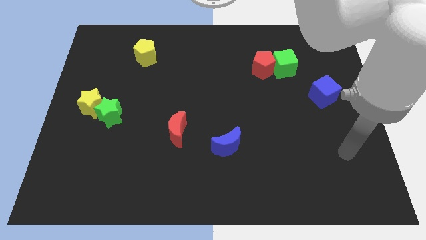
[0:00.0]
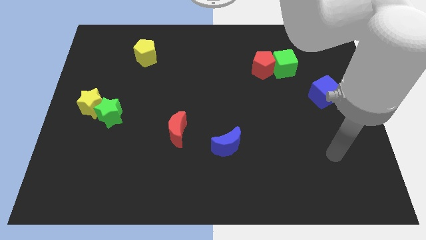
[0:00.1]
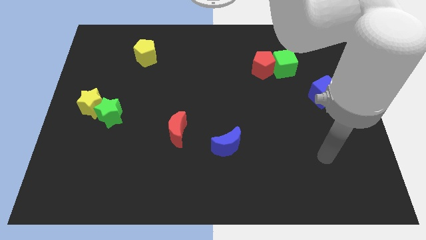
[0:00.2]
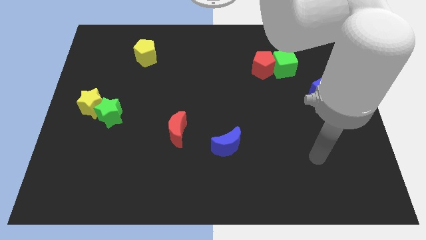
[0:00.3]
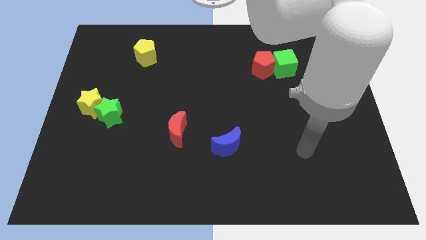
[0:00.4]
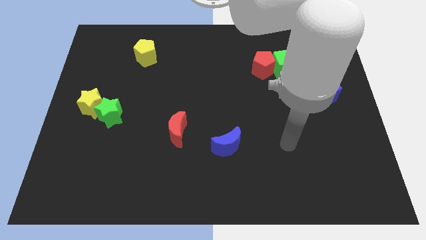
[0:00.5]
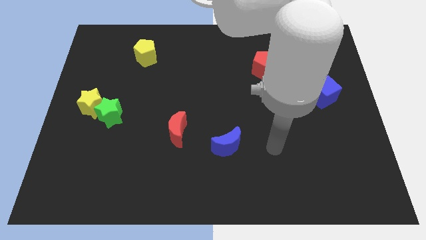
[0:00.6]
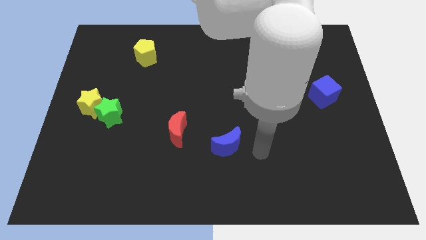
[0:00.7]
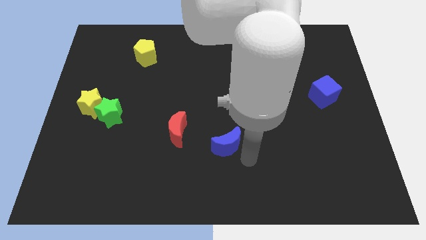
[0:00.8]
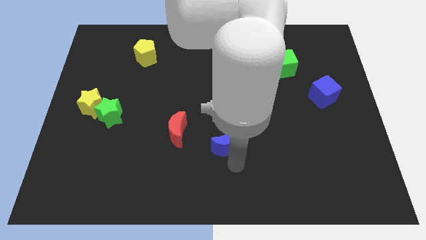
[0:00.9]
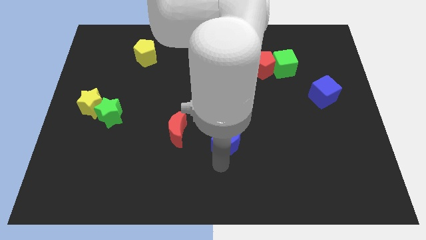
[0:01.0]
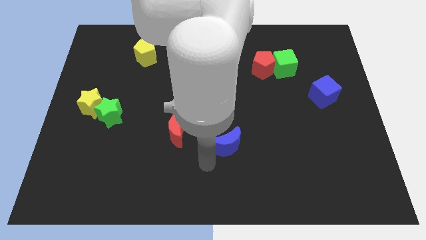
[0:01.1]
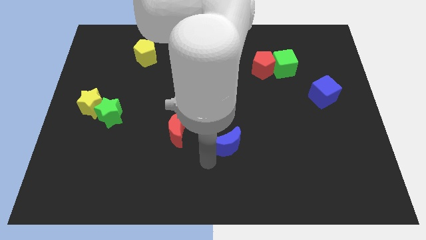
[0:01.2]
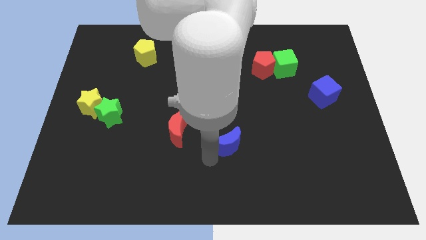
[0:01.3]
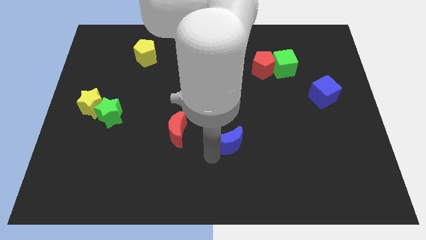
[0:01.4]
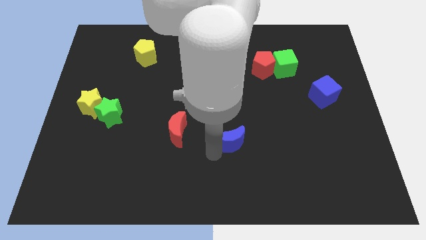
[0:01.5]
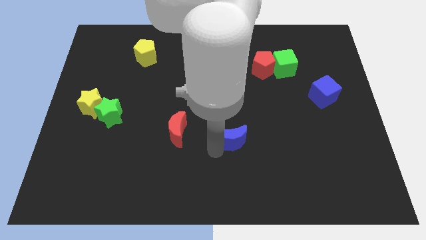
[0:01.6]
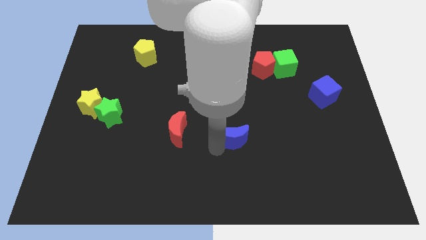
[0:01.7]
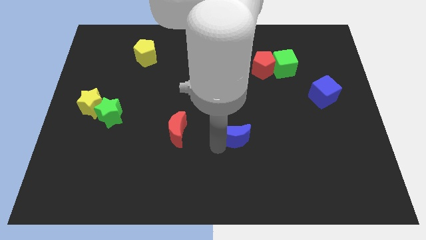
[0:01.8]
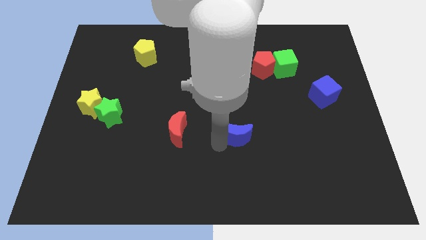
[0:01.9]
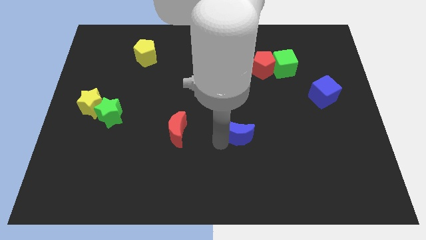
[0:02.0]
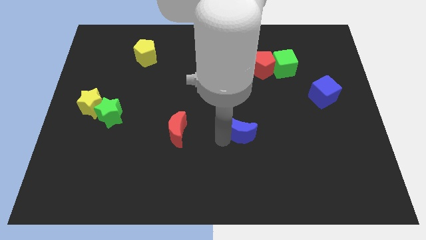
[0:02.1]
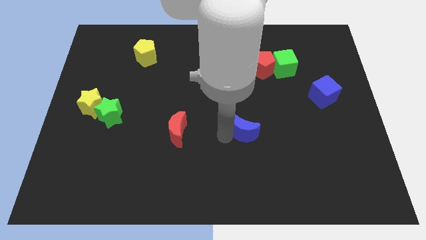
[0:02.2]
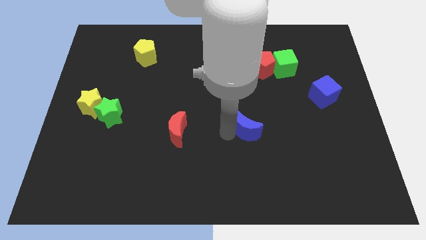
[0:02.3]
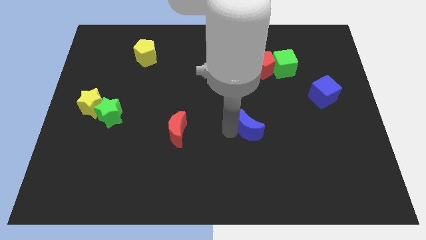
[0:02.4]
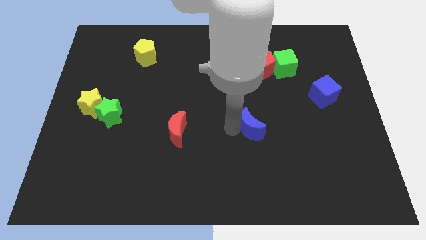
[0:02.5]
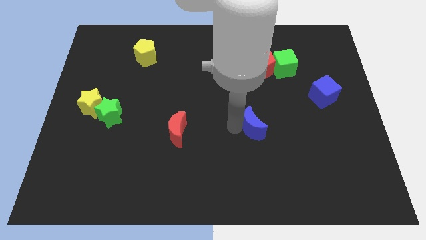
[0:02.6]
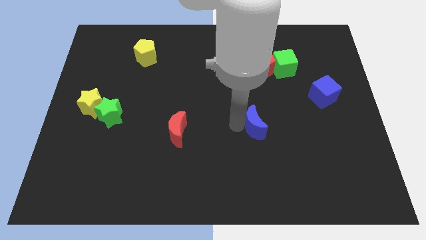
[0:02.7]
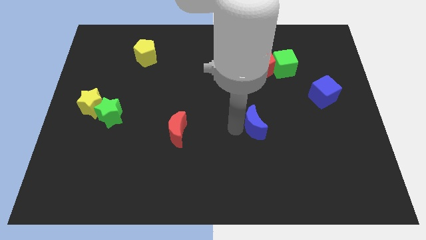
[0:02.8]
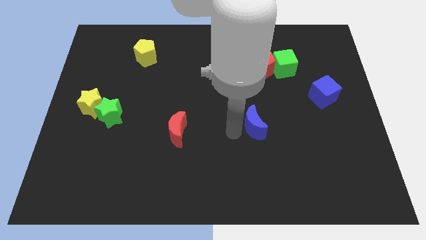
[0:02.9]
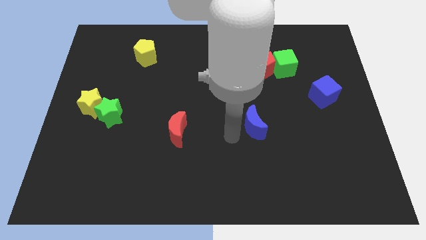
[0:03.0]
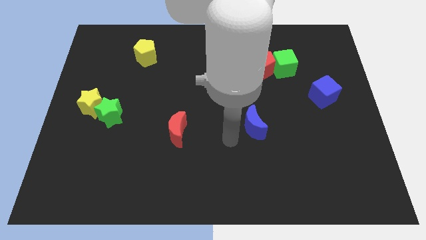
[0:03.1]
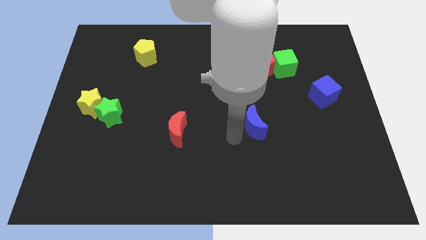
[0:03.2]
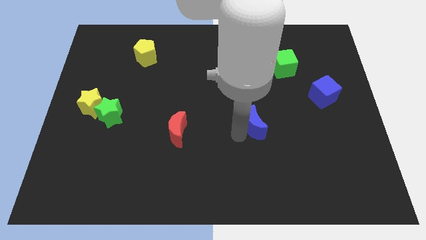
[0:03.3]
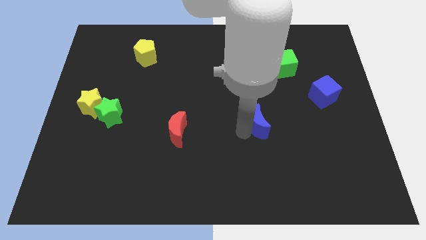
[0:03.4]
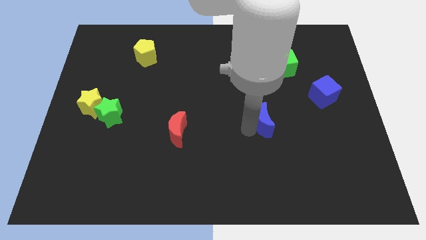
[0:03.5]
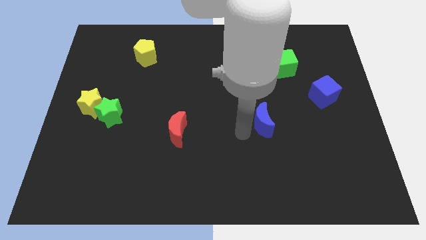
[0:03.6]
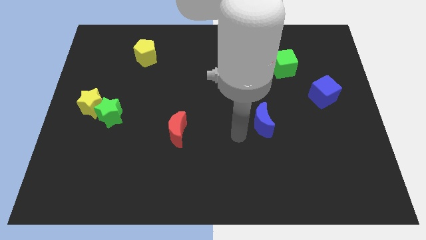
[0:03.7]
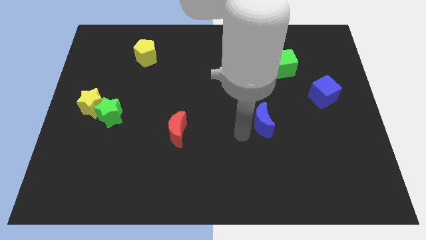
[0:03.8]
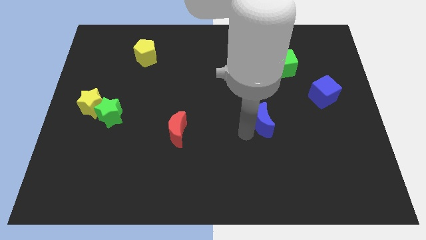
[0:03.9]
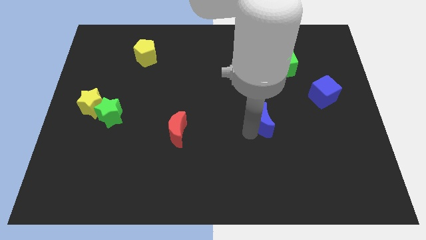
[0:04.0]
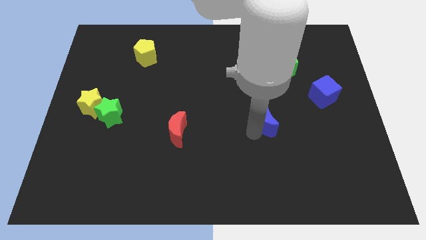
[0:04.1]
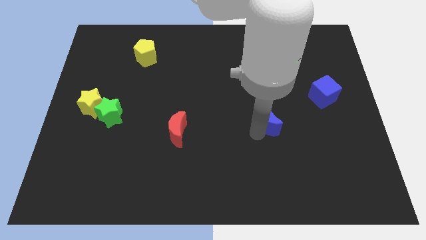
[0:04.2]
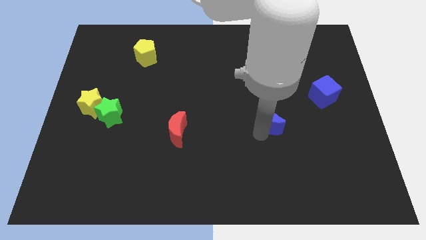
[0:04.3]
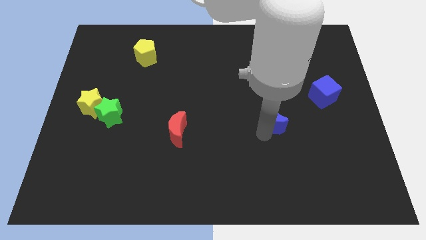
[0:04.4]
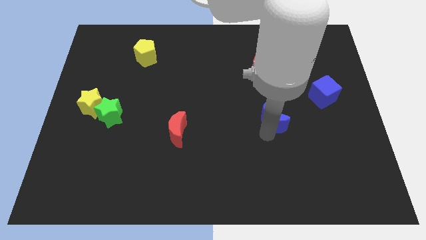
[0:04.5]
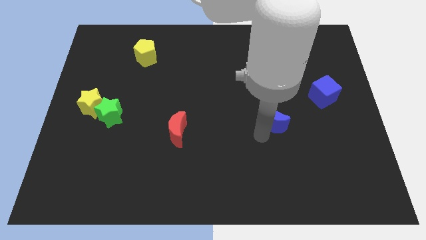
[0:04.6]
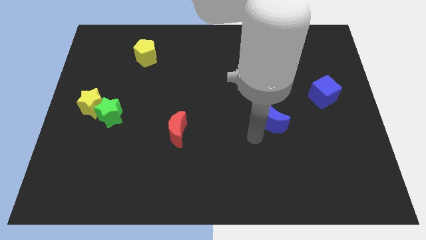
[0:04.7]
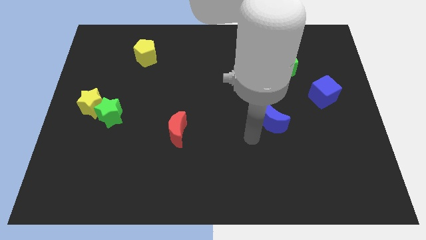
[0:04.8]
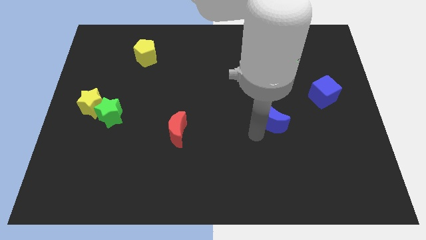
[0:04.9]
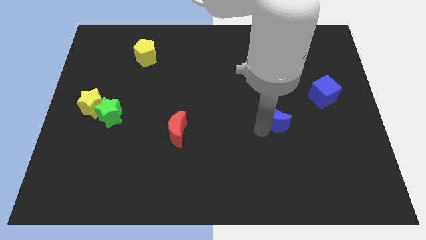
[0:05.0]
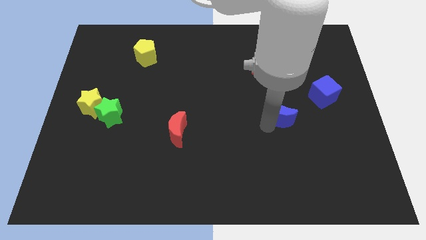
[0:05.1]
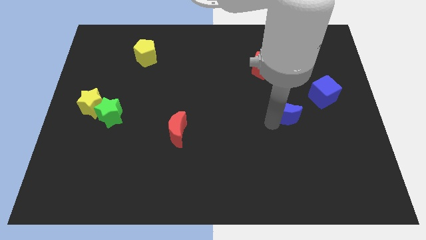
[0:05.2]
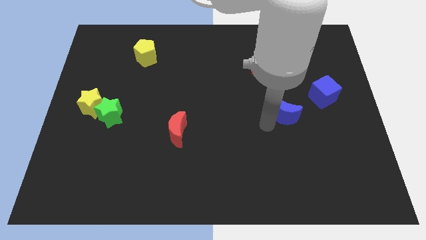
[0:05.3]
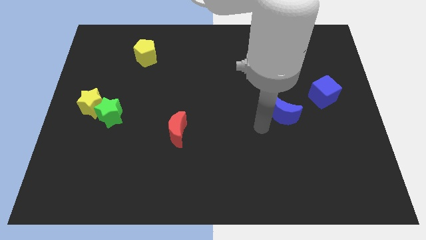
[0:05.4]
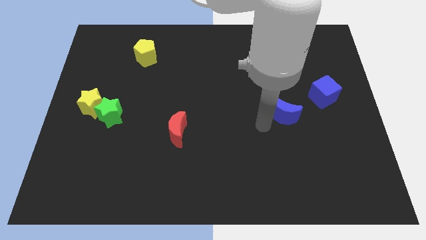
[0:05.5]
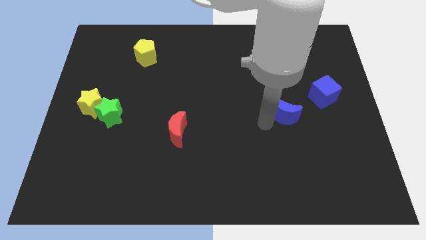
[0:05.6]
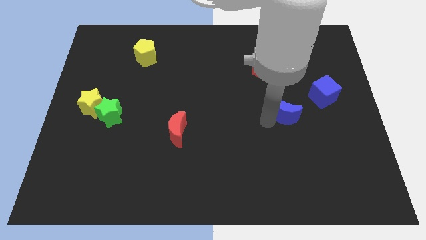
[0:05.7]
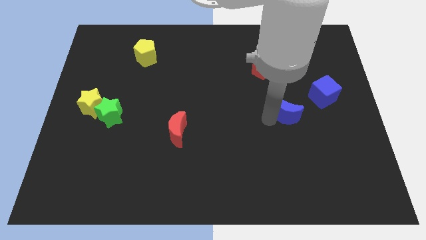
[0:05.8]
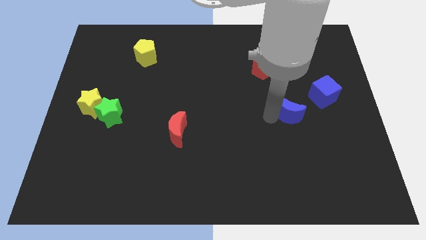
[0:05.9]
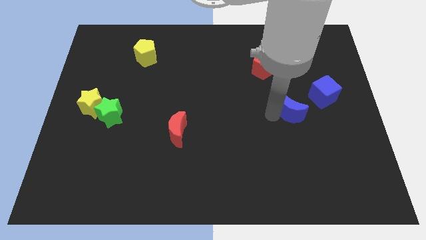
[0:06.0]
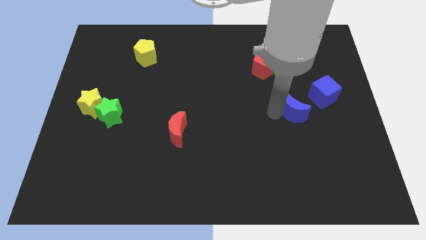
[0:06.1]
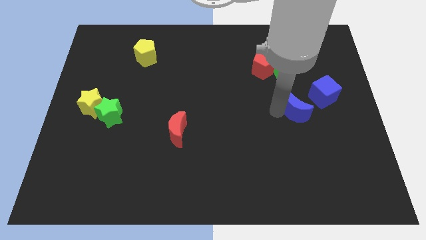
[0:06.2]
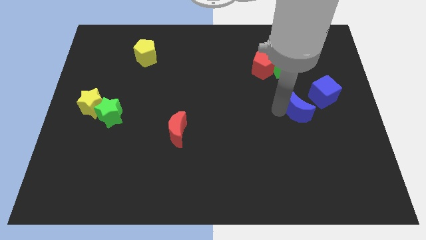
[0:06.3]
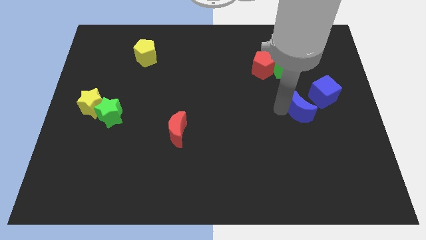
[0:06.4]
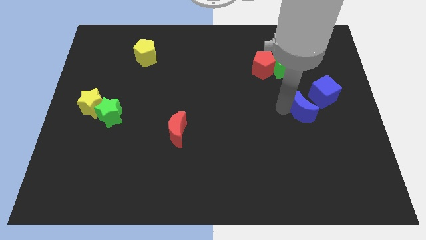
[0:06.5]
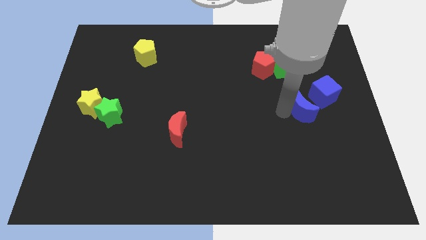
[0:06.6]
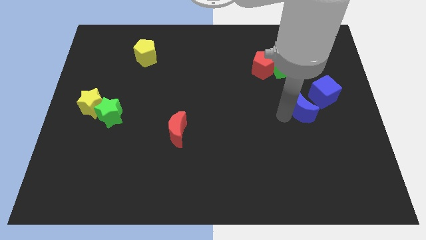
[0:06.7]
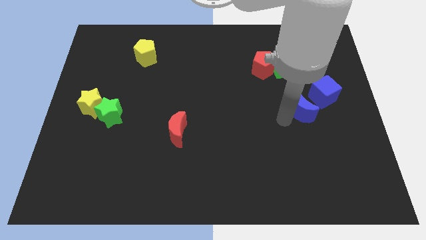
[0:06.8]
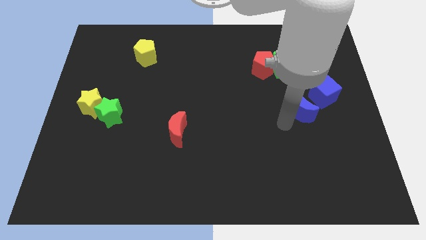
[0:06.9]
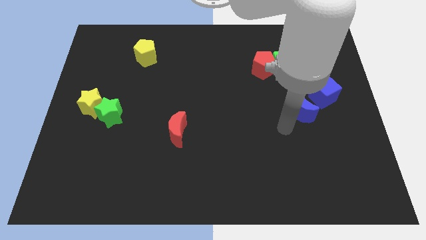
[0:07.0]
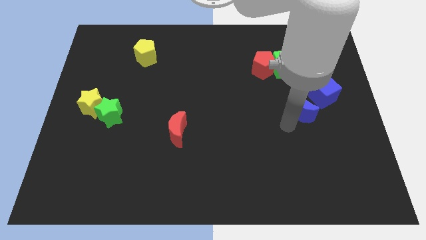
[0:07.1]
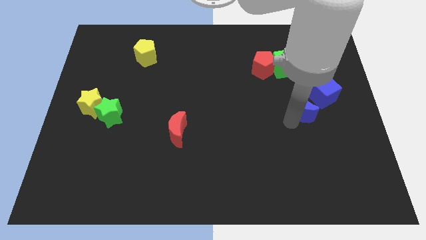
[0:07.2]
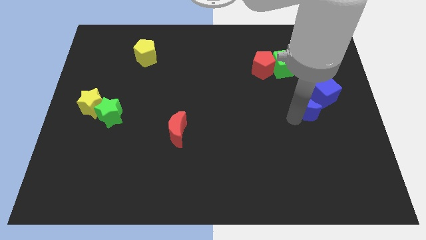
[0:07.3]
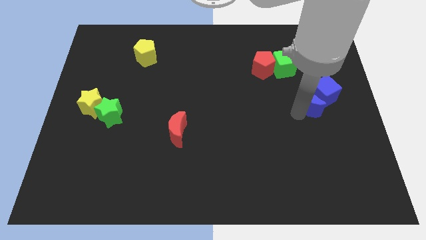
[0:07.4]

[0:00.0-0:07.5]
put the blue moon towards the blue cube

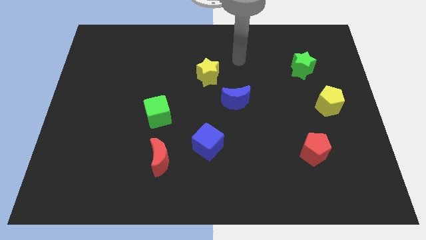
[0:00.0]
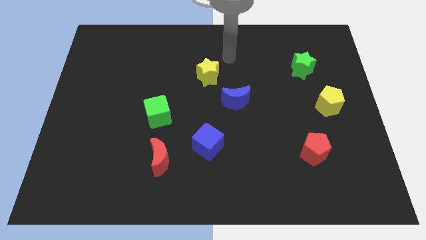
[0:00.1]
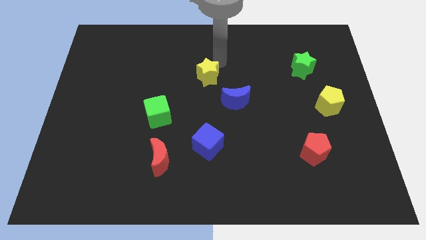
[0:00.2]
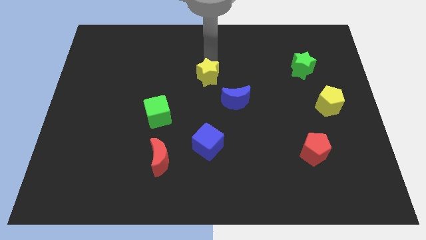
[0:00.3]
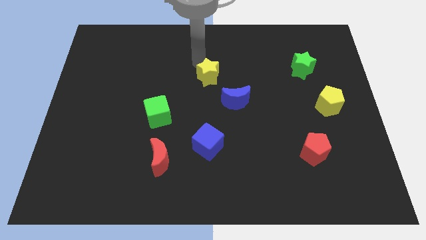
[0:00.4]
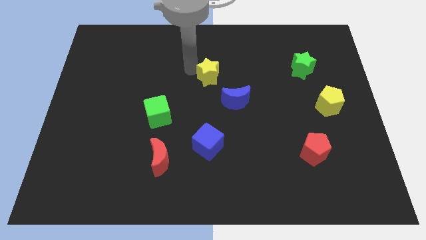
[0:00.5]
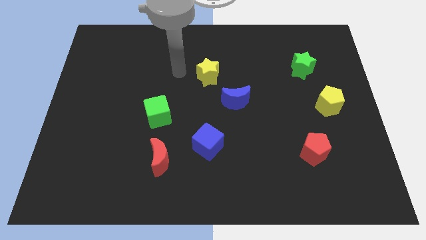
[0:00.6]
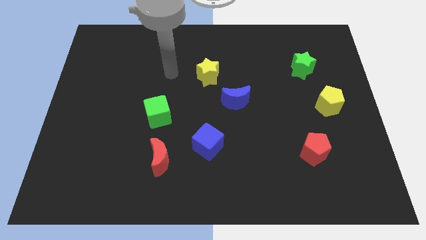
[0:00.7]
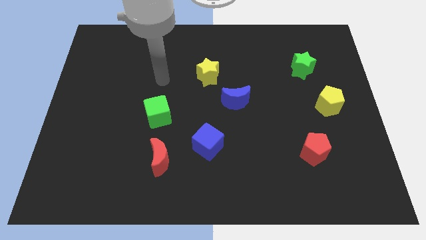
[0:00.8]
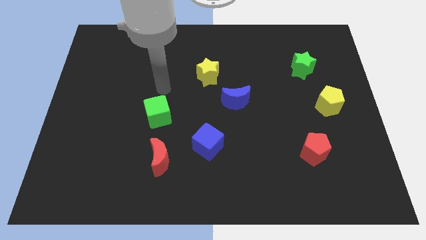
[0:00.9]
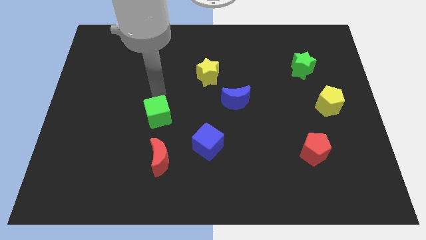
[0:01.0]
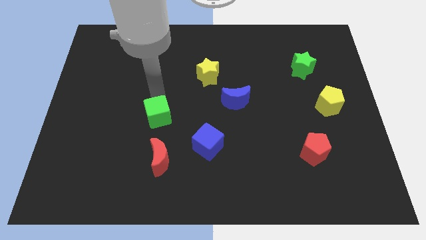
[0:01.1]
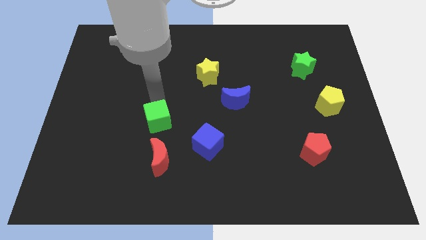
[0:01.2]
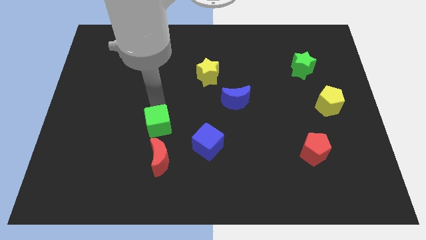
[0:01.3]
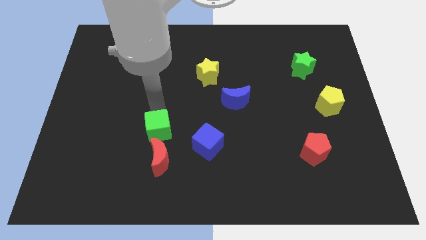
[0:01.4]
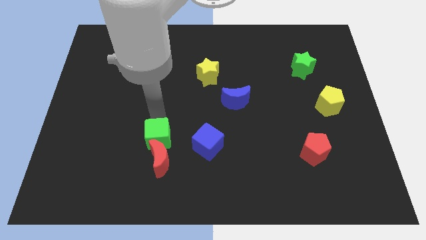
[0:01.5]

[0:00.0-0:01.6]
move the green cube towards the red moon
